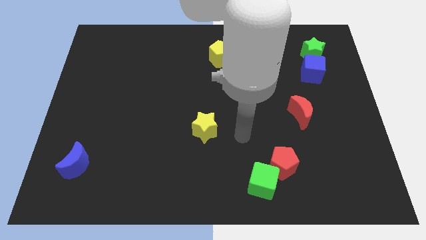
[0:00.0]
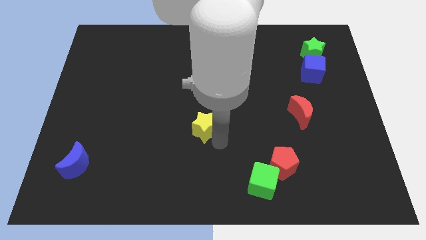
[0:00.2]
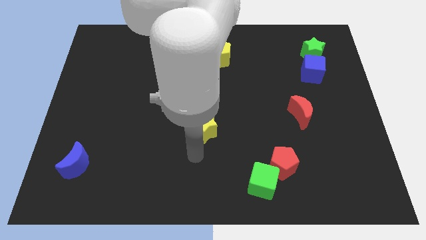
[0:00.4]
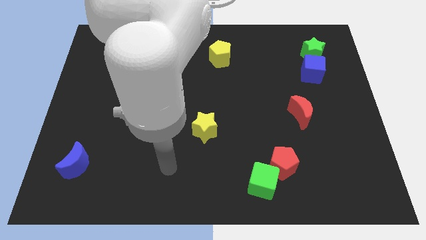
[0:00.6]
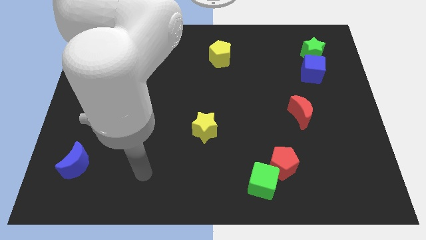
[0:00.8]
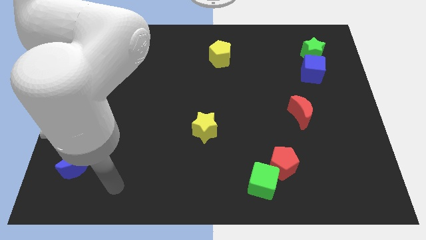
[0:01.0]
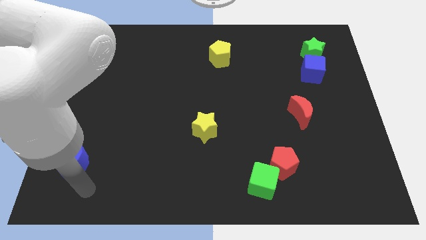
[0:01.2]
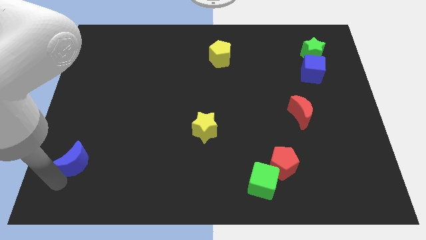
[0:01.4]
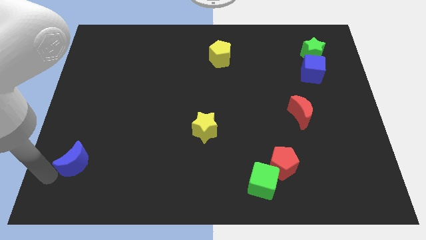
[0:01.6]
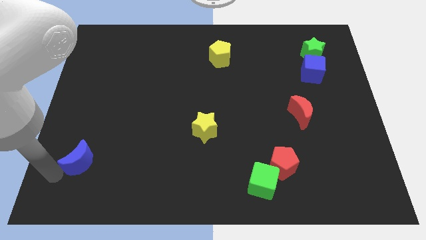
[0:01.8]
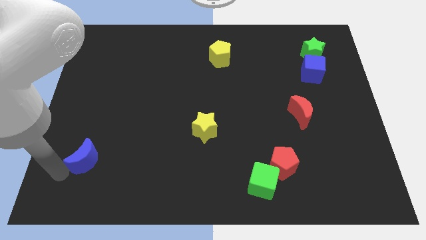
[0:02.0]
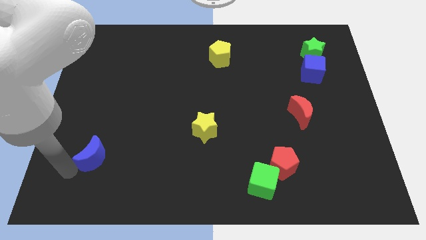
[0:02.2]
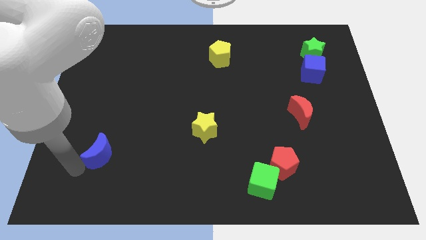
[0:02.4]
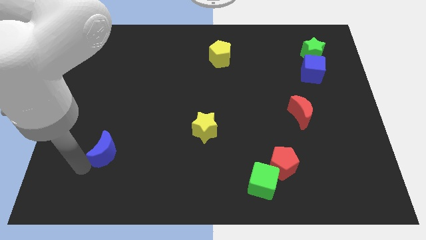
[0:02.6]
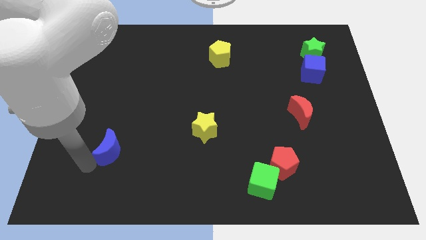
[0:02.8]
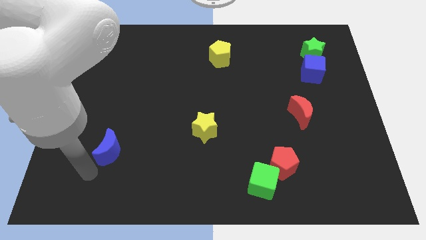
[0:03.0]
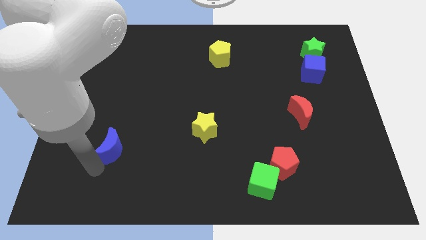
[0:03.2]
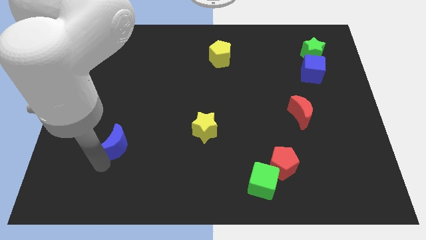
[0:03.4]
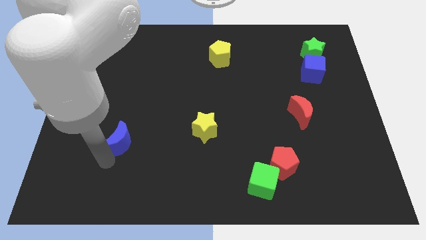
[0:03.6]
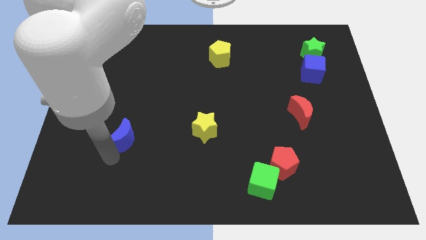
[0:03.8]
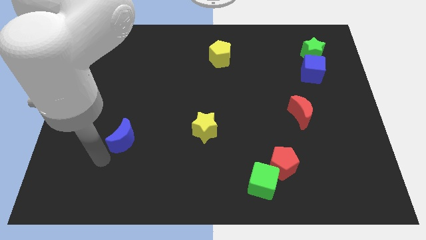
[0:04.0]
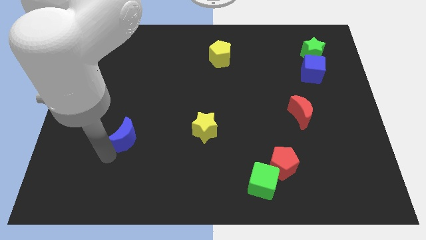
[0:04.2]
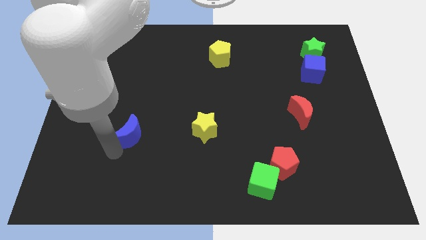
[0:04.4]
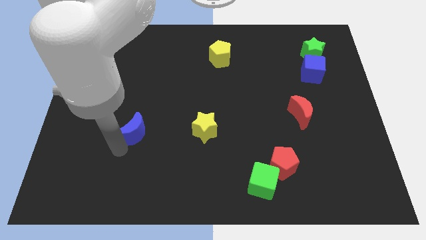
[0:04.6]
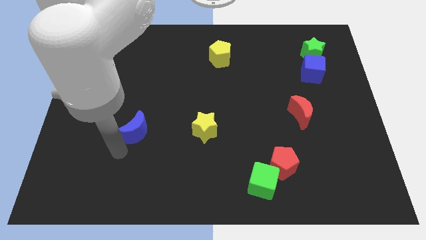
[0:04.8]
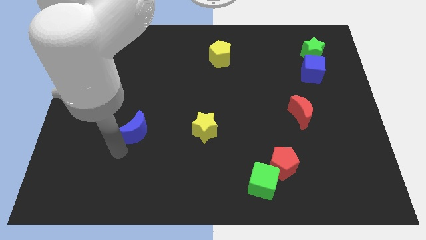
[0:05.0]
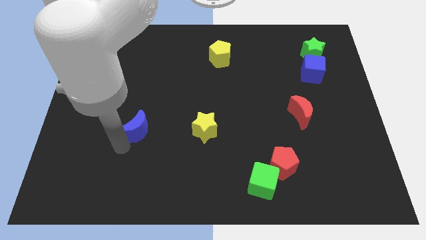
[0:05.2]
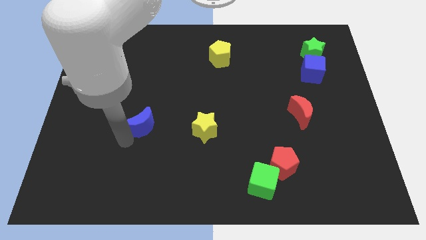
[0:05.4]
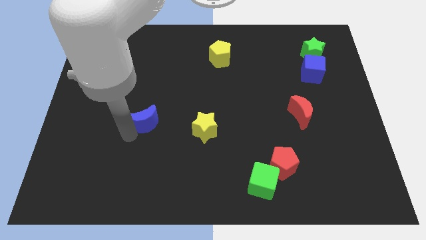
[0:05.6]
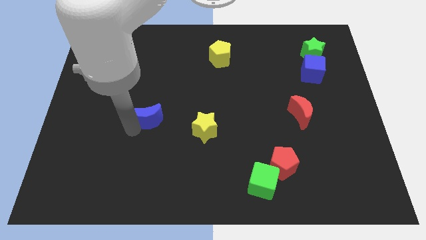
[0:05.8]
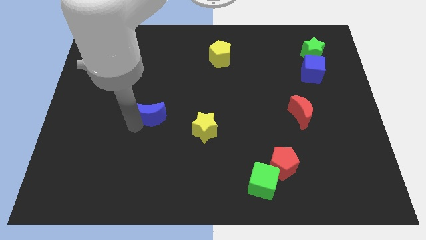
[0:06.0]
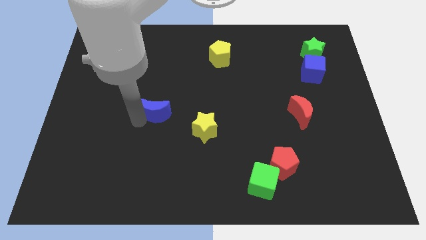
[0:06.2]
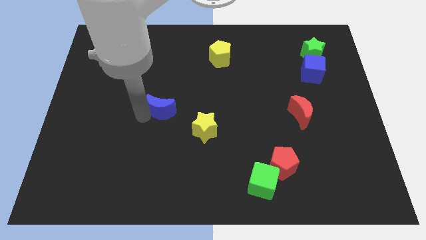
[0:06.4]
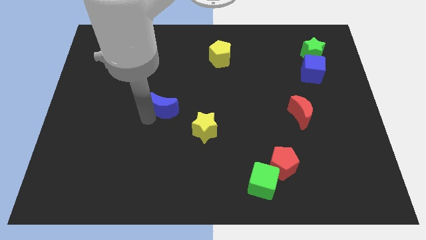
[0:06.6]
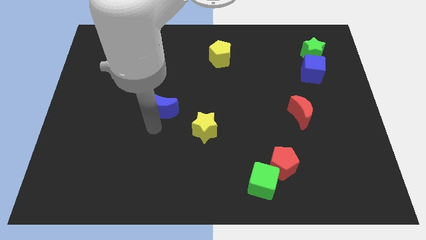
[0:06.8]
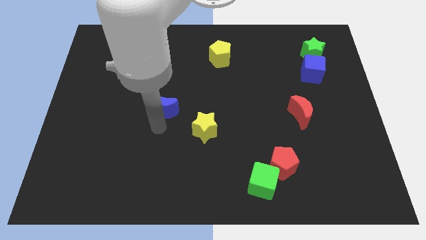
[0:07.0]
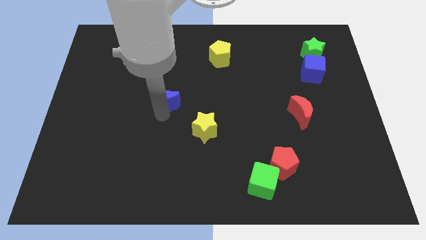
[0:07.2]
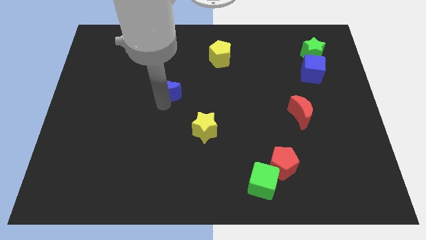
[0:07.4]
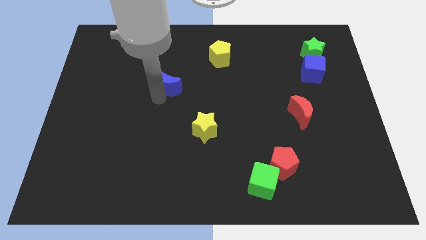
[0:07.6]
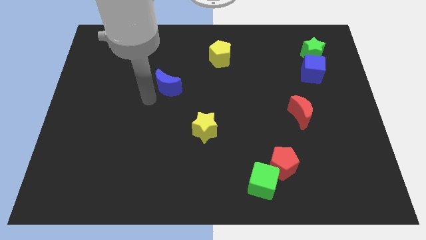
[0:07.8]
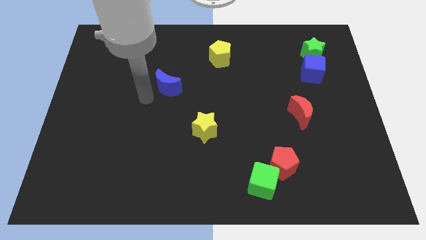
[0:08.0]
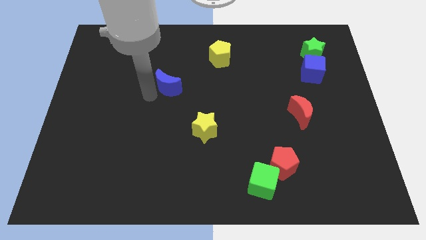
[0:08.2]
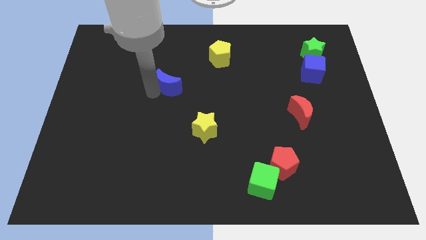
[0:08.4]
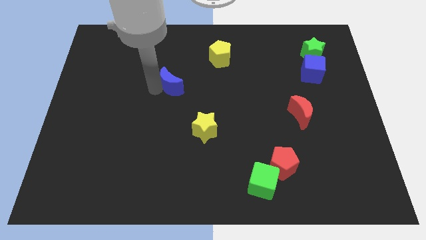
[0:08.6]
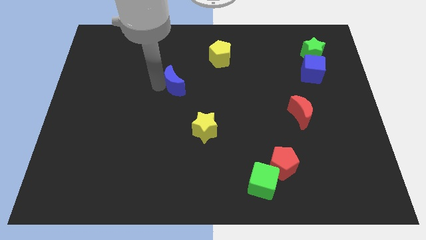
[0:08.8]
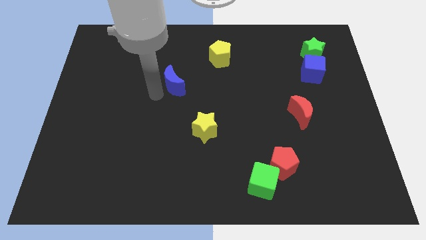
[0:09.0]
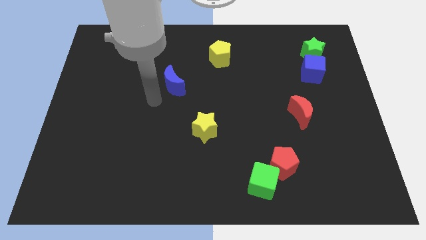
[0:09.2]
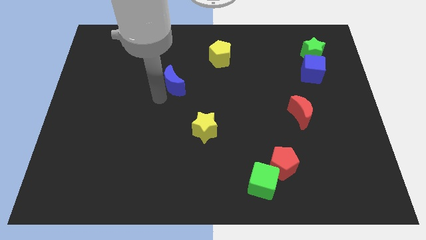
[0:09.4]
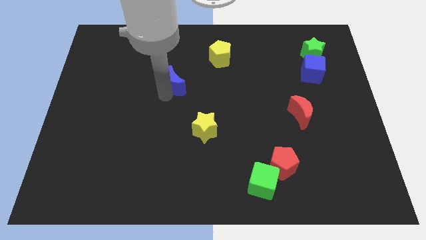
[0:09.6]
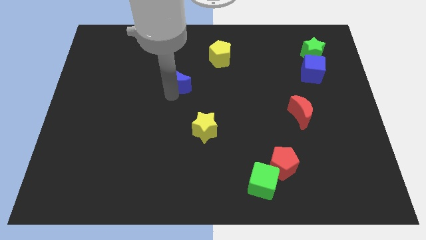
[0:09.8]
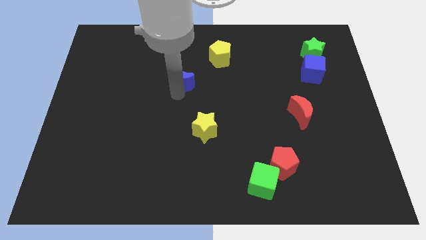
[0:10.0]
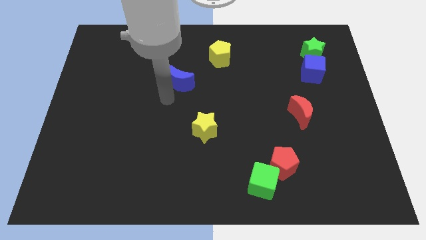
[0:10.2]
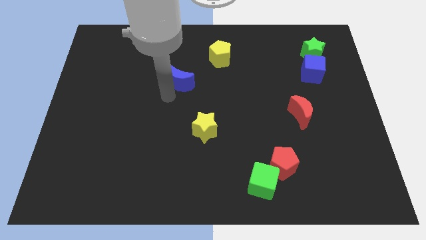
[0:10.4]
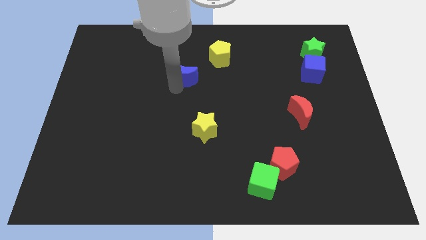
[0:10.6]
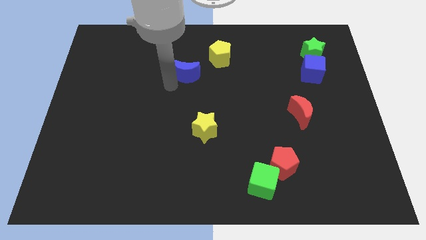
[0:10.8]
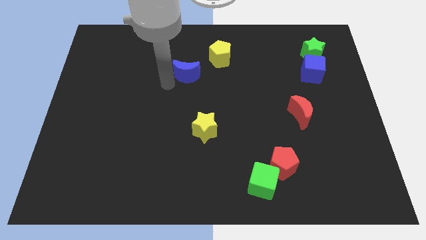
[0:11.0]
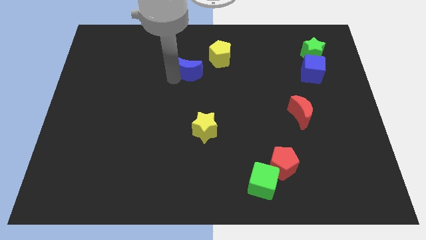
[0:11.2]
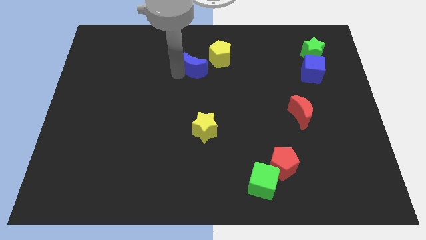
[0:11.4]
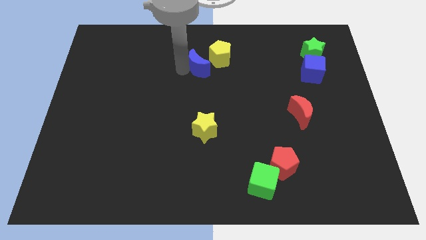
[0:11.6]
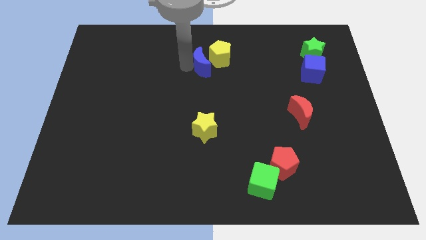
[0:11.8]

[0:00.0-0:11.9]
push the blue moon close to the yellow pentagon

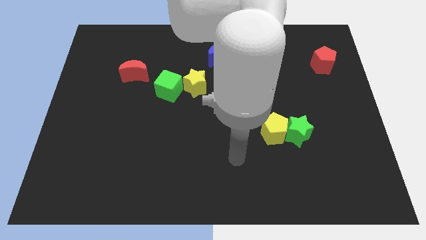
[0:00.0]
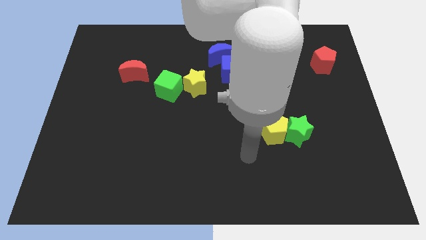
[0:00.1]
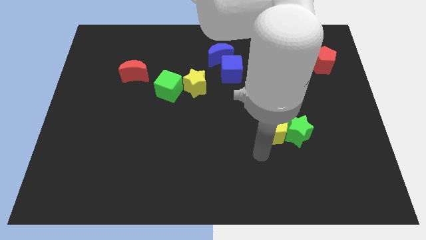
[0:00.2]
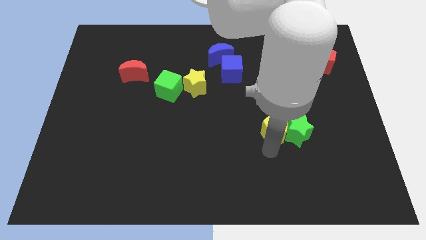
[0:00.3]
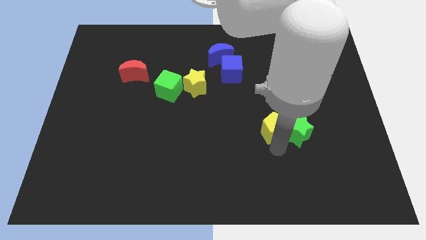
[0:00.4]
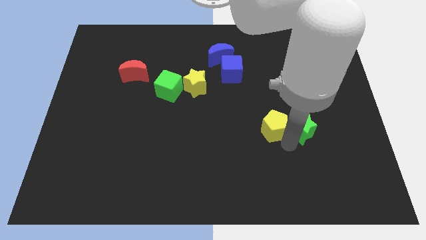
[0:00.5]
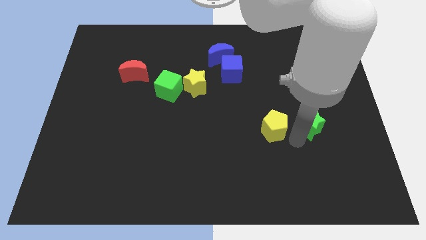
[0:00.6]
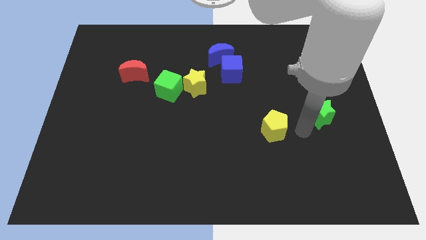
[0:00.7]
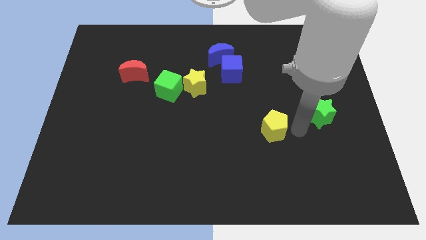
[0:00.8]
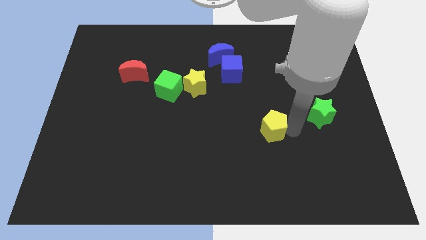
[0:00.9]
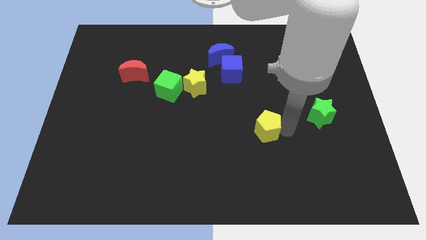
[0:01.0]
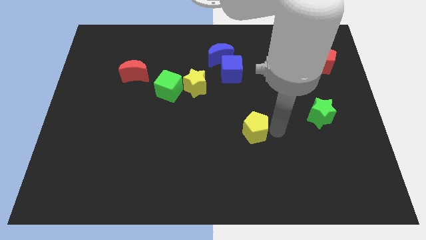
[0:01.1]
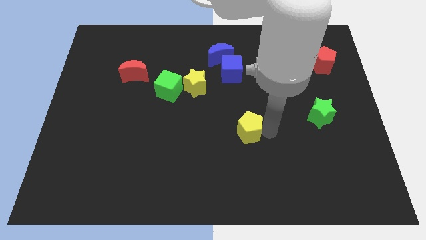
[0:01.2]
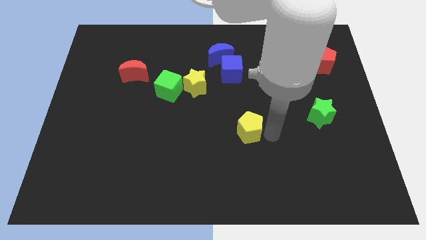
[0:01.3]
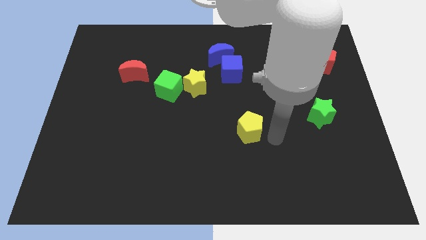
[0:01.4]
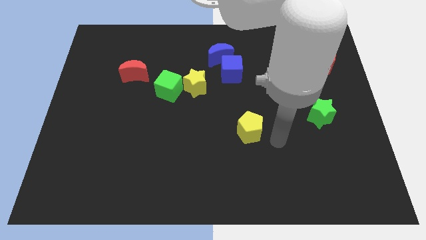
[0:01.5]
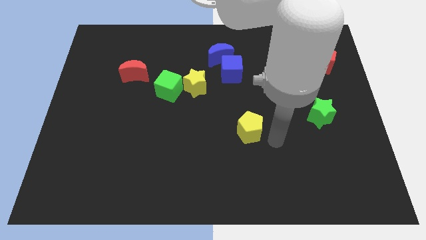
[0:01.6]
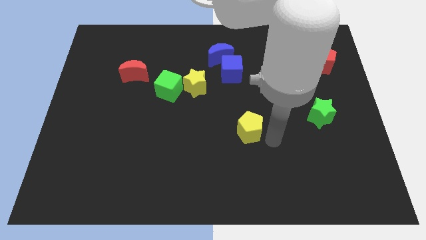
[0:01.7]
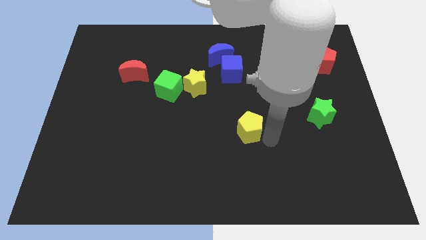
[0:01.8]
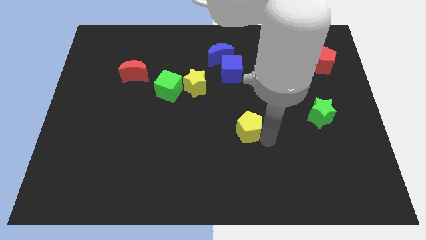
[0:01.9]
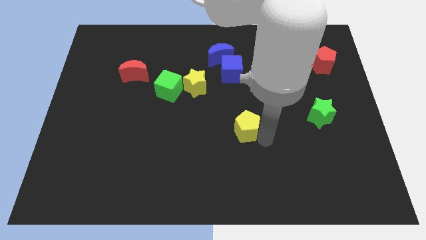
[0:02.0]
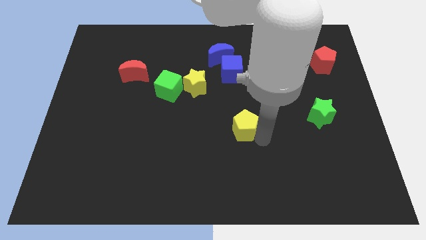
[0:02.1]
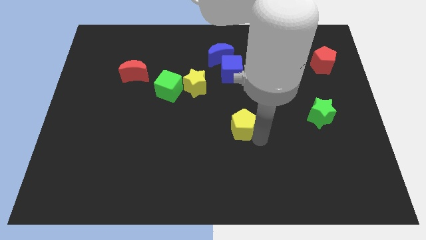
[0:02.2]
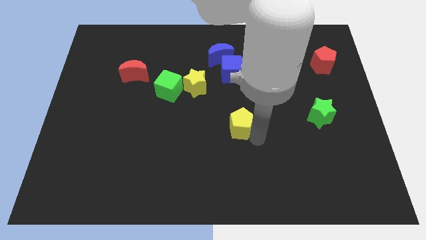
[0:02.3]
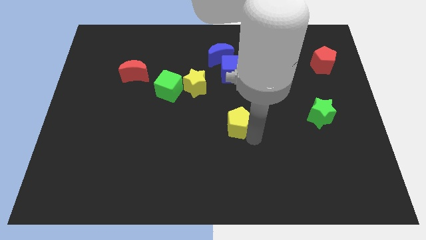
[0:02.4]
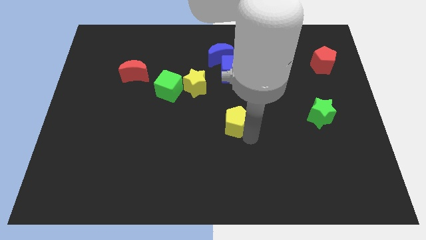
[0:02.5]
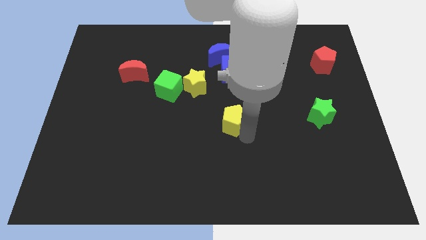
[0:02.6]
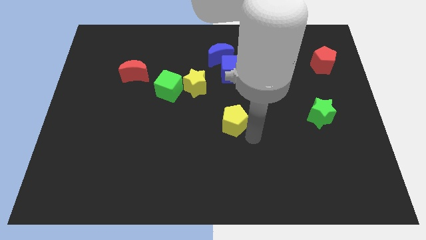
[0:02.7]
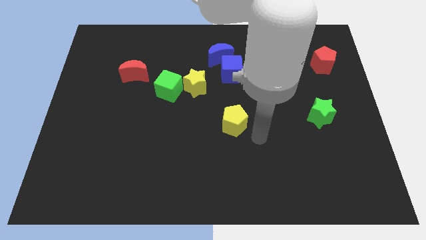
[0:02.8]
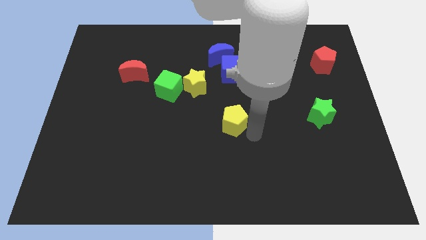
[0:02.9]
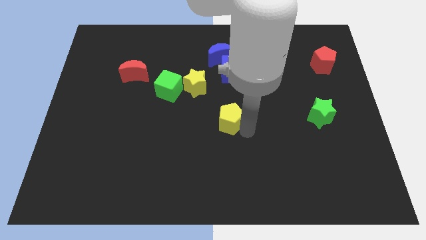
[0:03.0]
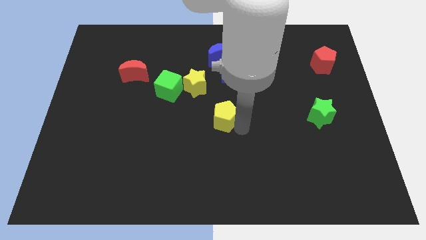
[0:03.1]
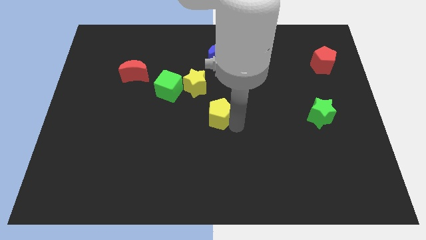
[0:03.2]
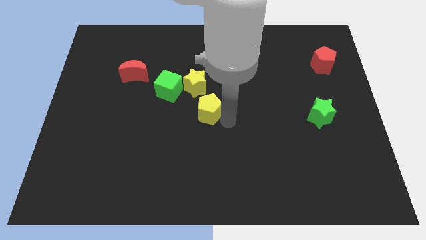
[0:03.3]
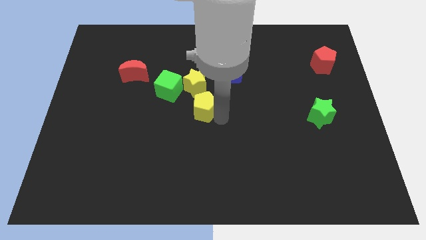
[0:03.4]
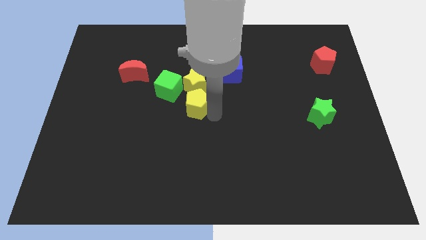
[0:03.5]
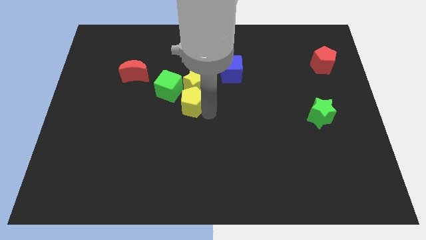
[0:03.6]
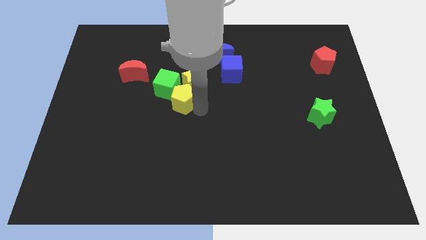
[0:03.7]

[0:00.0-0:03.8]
move the yellow pentagon to the green cube
